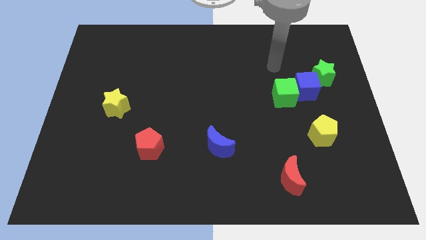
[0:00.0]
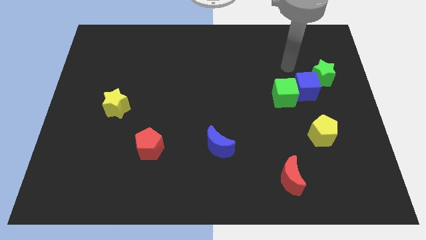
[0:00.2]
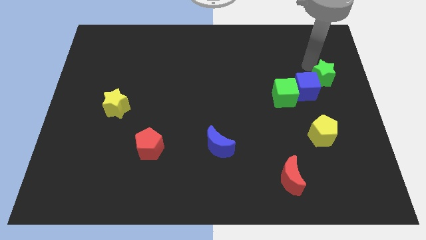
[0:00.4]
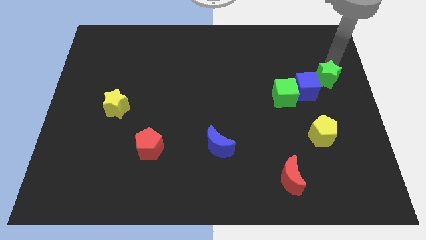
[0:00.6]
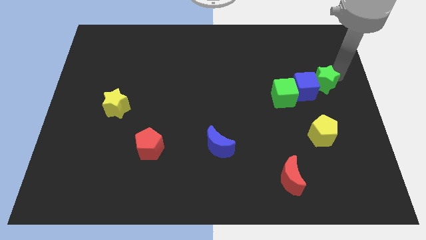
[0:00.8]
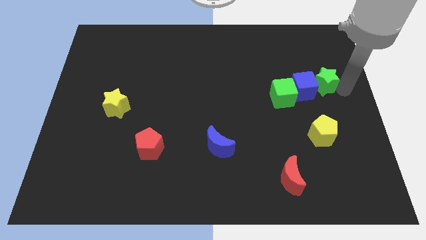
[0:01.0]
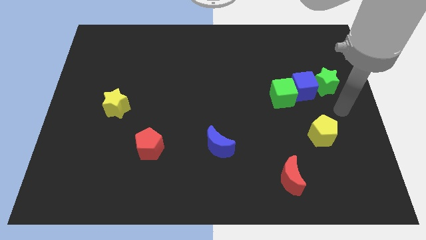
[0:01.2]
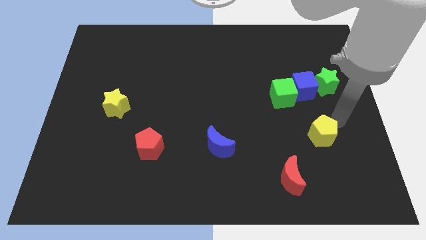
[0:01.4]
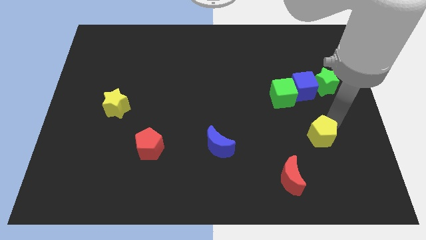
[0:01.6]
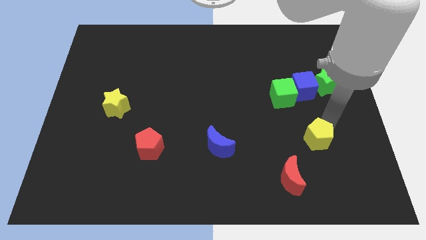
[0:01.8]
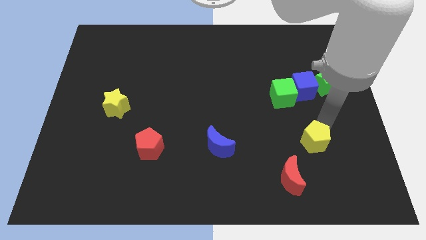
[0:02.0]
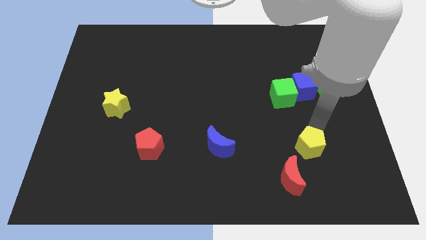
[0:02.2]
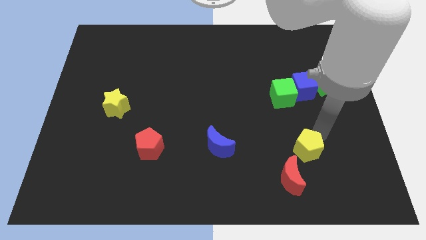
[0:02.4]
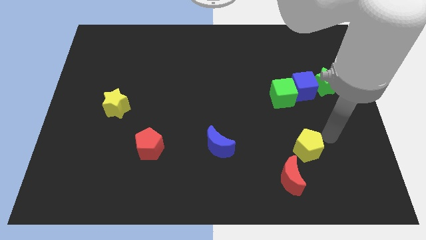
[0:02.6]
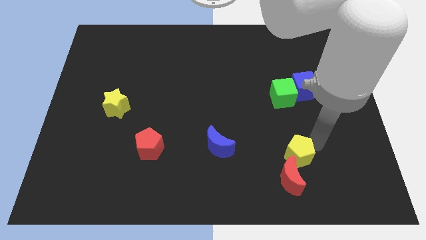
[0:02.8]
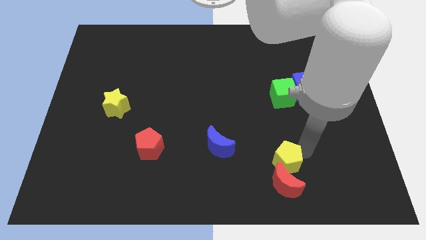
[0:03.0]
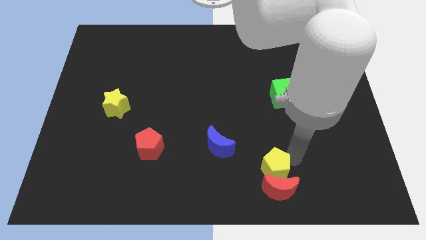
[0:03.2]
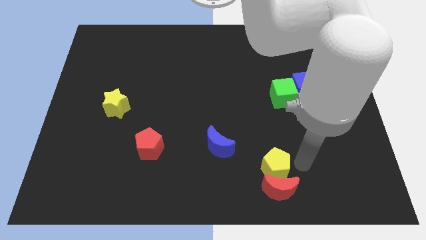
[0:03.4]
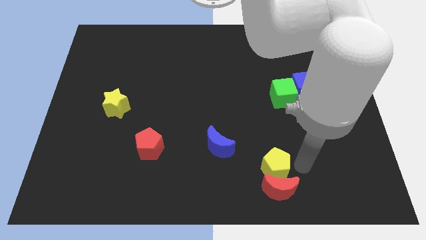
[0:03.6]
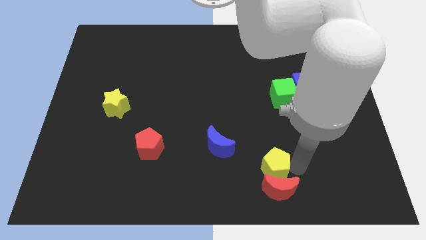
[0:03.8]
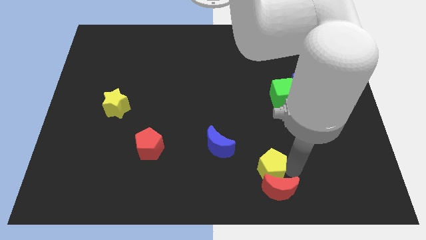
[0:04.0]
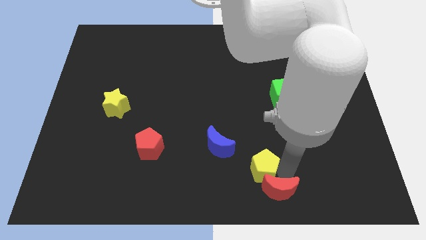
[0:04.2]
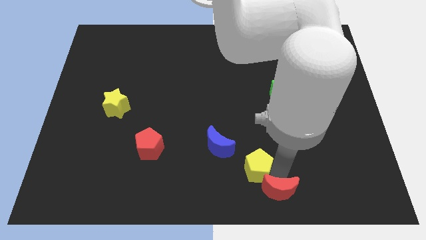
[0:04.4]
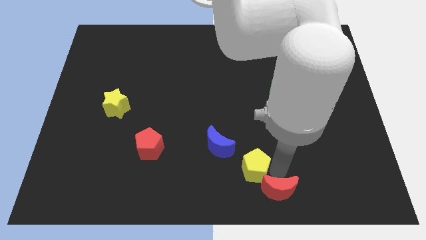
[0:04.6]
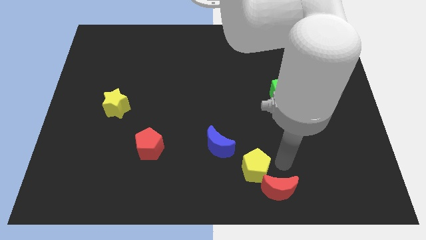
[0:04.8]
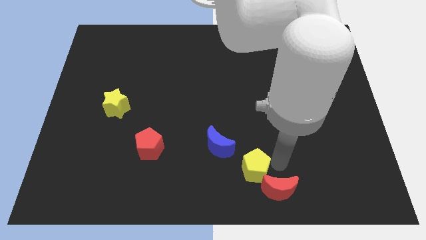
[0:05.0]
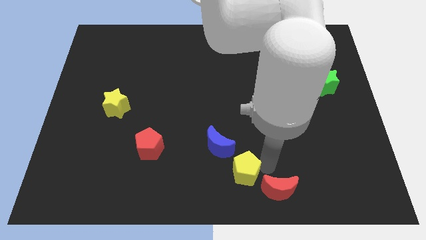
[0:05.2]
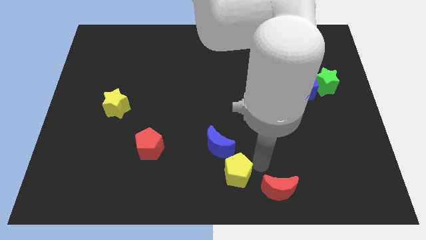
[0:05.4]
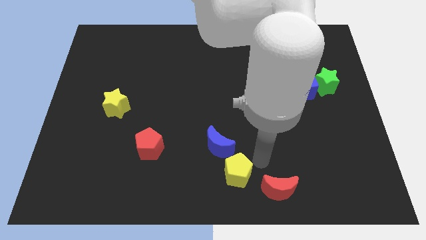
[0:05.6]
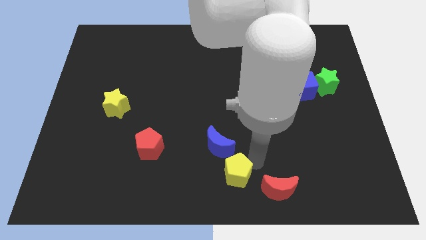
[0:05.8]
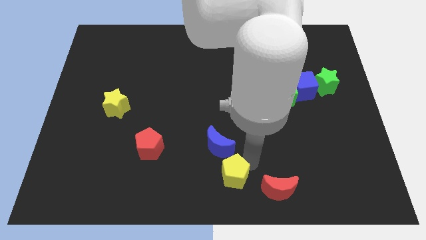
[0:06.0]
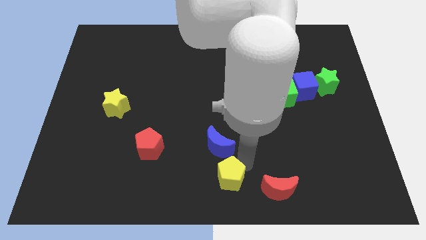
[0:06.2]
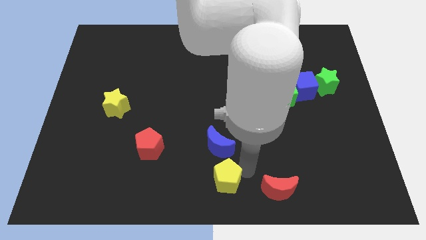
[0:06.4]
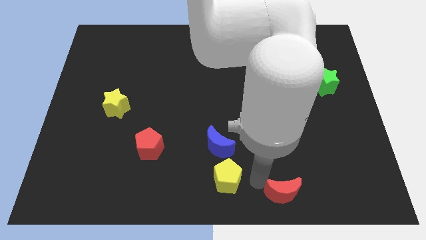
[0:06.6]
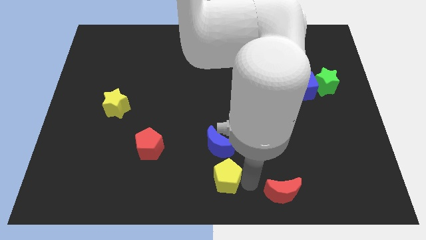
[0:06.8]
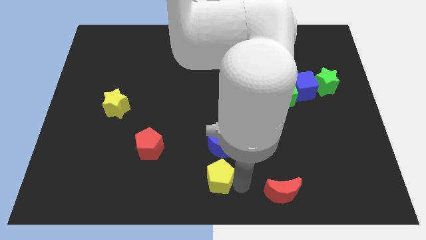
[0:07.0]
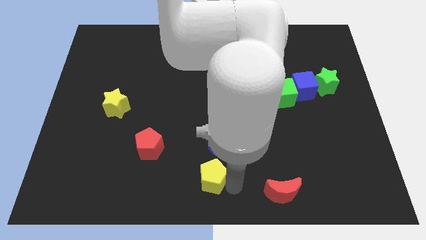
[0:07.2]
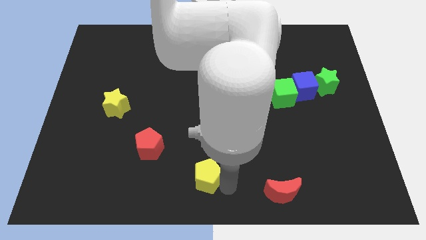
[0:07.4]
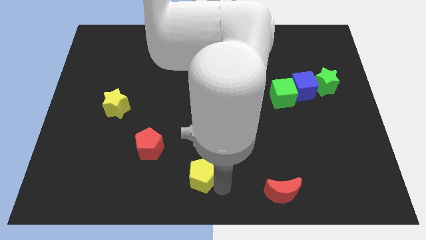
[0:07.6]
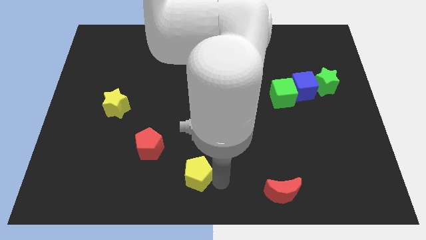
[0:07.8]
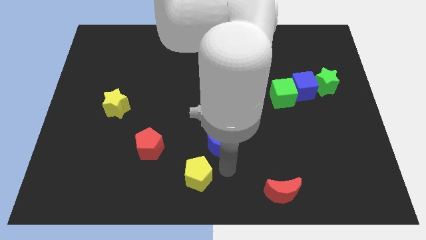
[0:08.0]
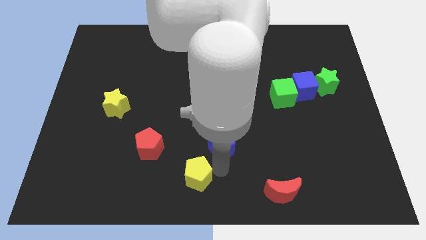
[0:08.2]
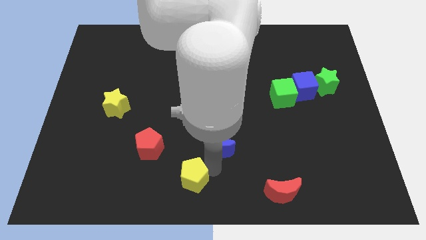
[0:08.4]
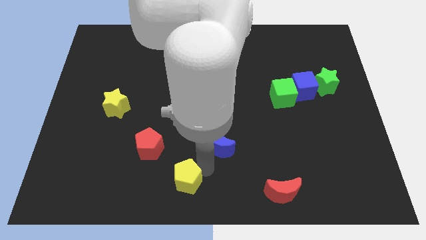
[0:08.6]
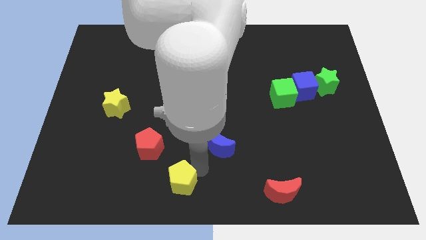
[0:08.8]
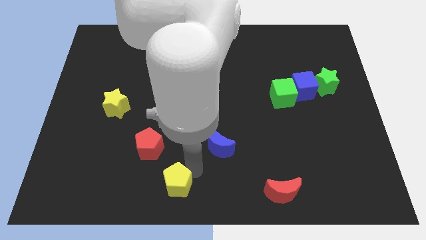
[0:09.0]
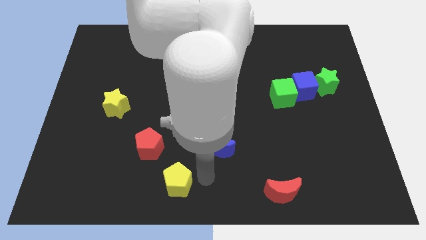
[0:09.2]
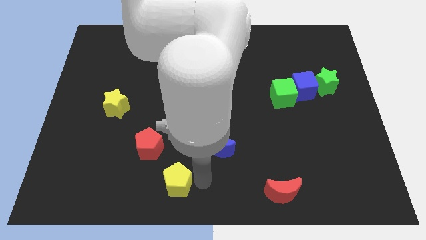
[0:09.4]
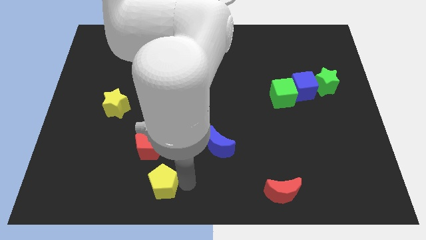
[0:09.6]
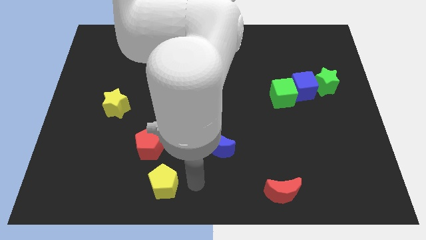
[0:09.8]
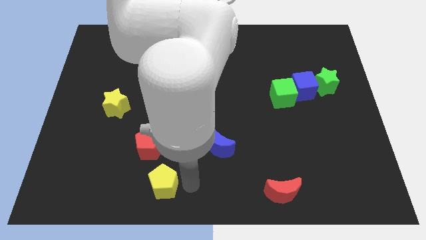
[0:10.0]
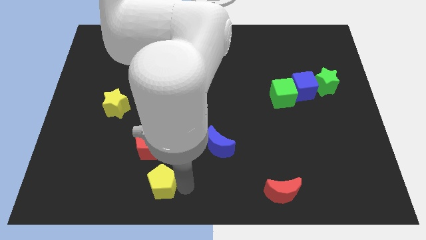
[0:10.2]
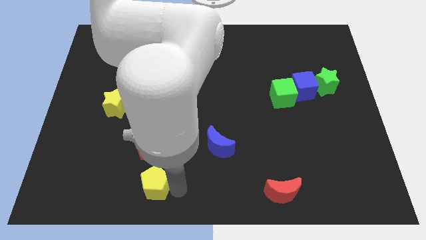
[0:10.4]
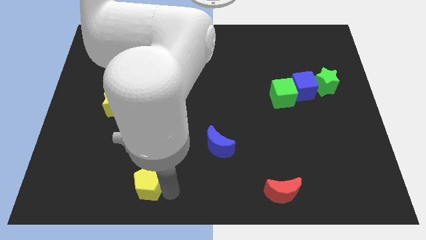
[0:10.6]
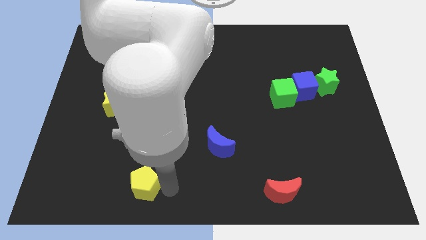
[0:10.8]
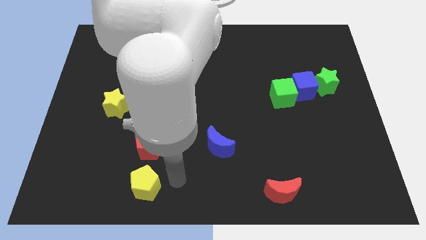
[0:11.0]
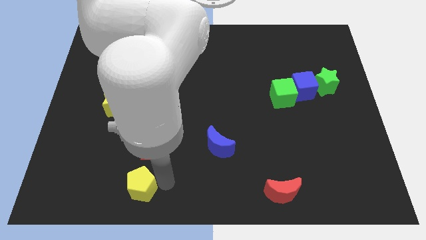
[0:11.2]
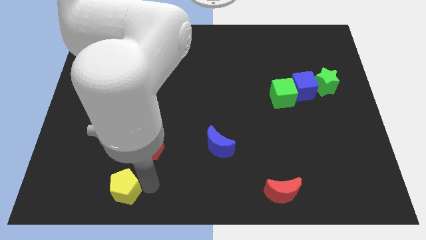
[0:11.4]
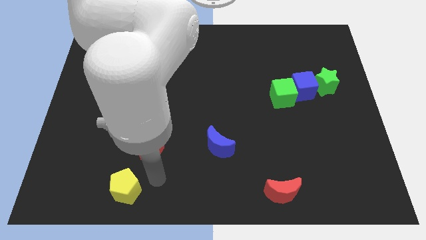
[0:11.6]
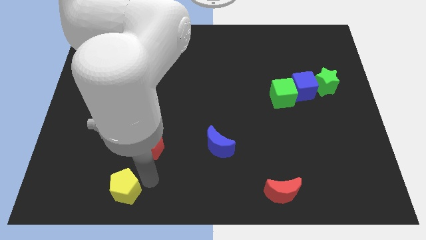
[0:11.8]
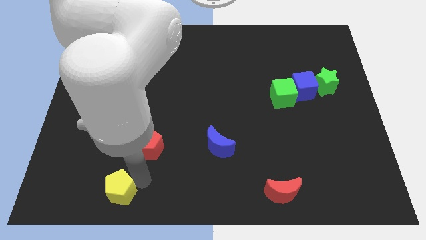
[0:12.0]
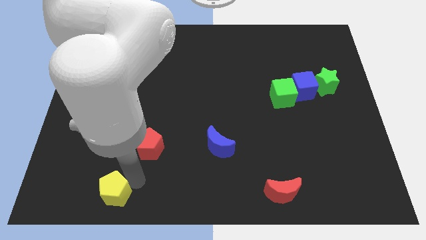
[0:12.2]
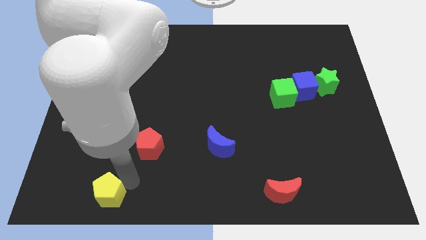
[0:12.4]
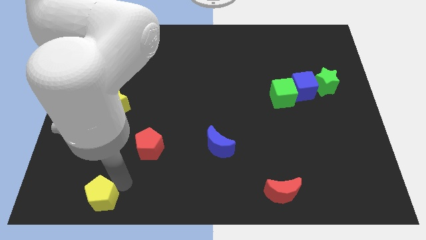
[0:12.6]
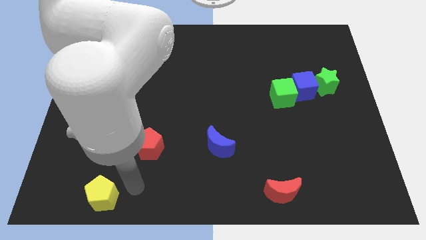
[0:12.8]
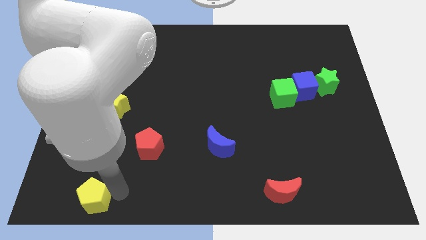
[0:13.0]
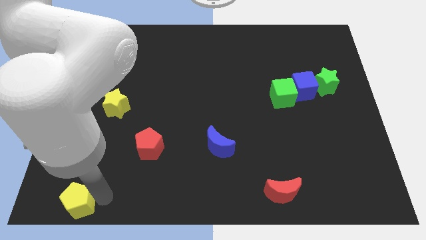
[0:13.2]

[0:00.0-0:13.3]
move the yellow pentagon to the bottom left

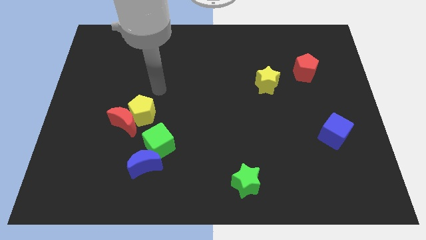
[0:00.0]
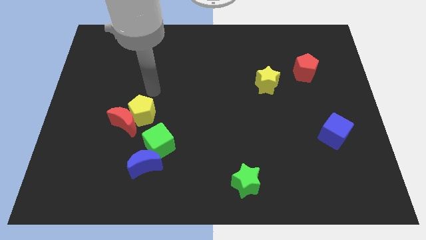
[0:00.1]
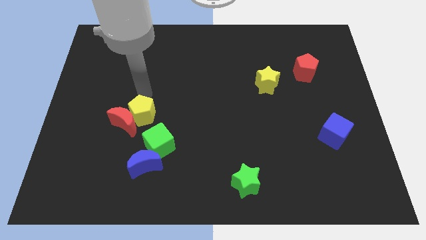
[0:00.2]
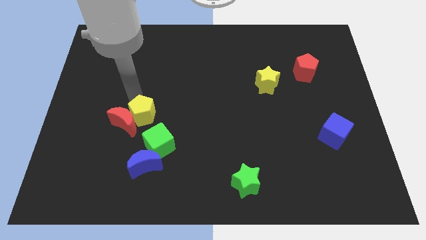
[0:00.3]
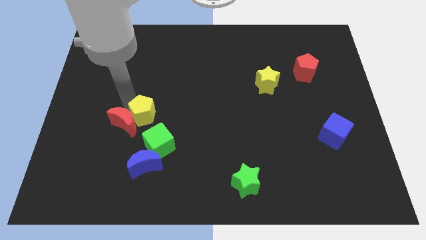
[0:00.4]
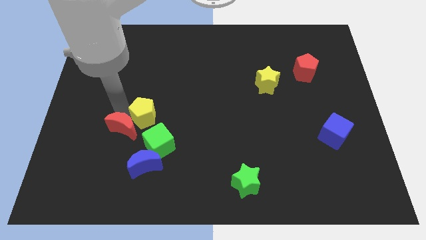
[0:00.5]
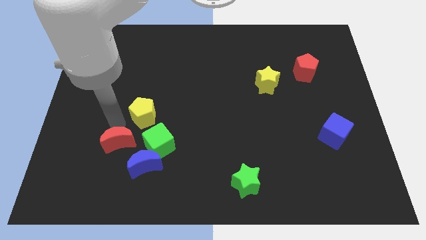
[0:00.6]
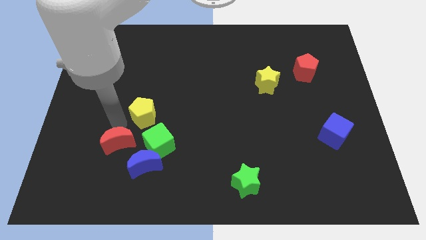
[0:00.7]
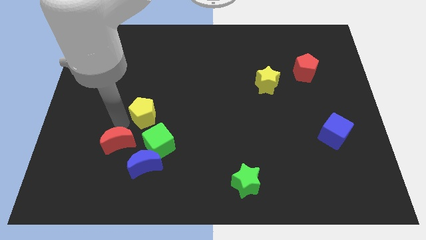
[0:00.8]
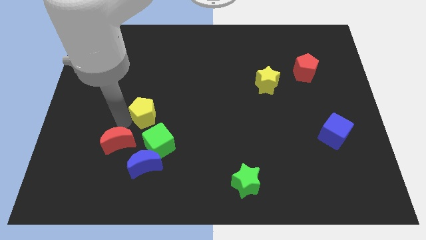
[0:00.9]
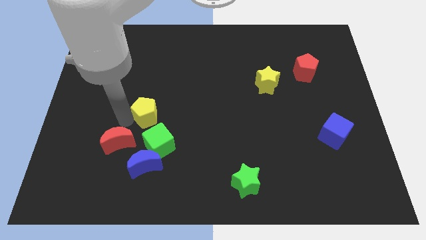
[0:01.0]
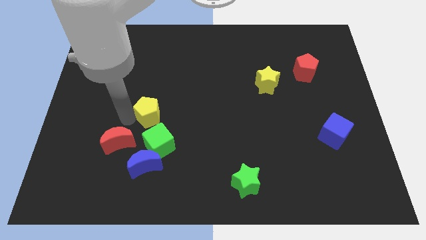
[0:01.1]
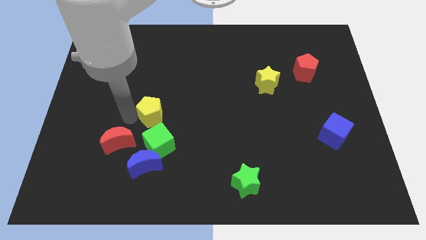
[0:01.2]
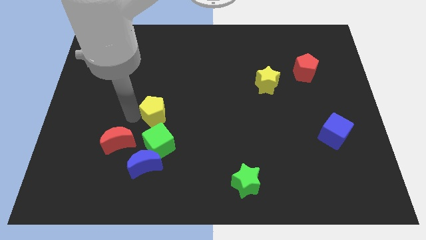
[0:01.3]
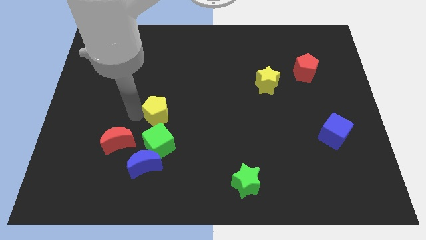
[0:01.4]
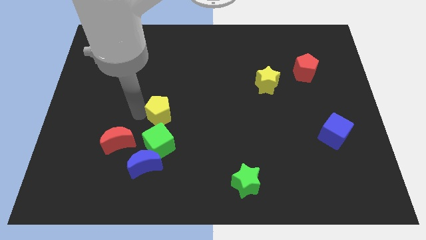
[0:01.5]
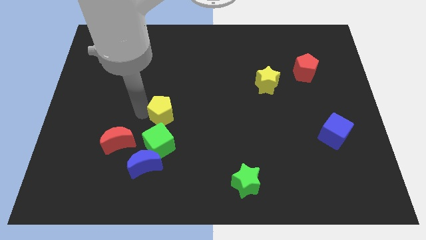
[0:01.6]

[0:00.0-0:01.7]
put the yellow pentagon to the middle of the board
